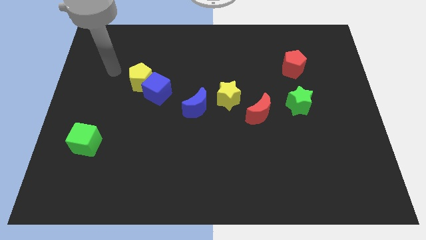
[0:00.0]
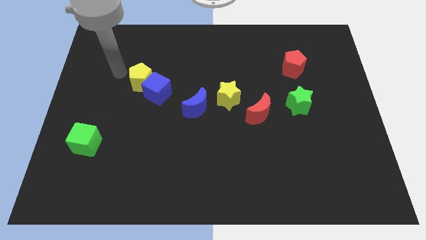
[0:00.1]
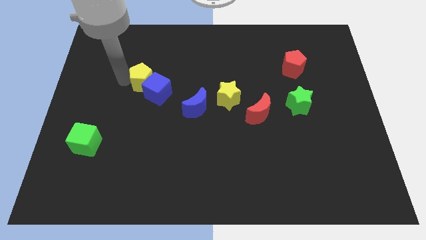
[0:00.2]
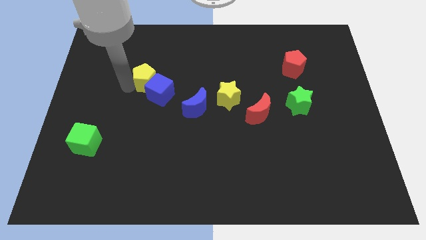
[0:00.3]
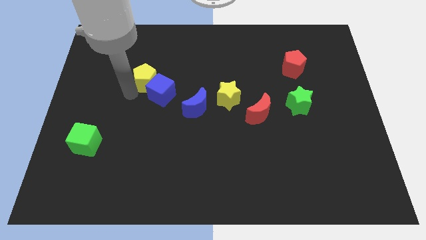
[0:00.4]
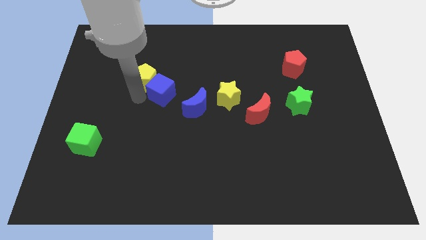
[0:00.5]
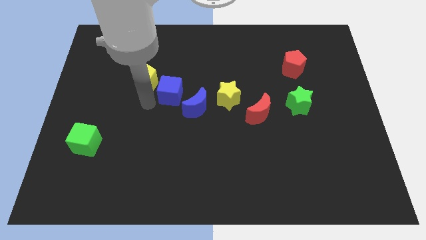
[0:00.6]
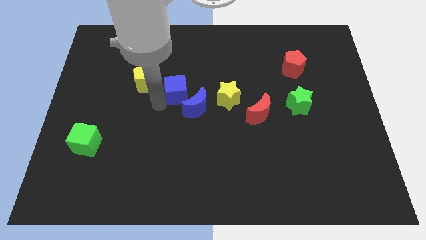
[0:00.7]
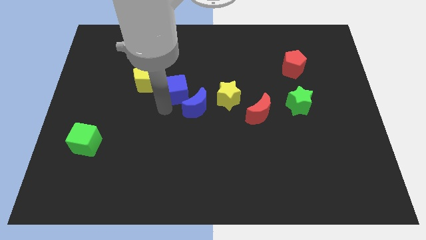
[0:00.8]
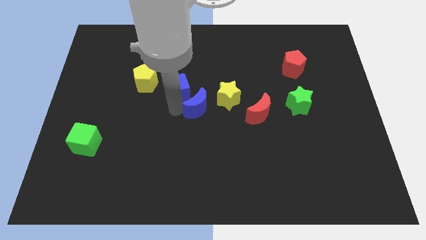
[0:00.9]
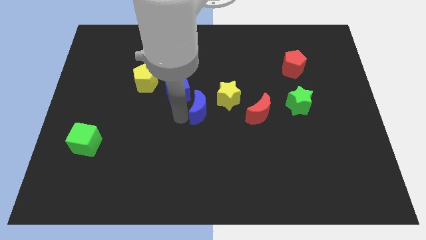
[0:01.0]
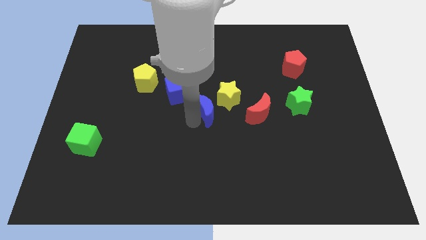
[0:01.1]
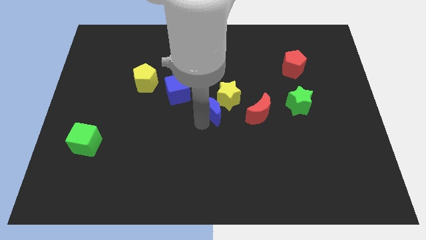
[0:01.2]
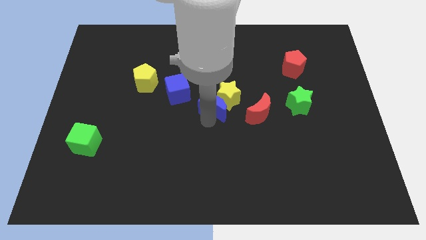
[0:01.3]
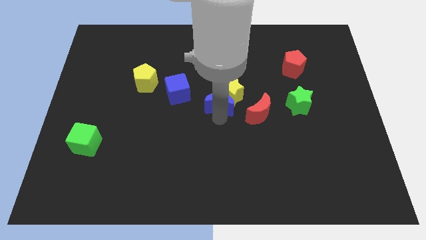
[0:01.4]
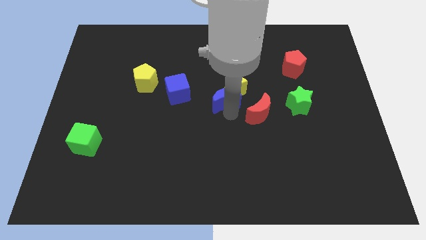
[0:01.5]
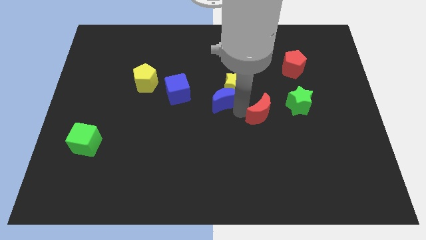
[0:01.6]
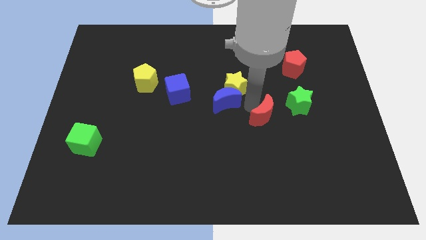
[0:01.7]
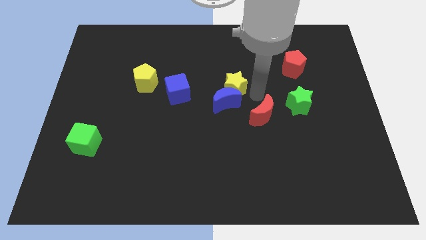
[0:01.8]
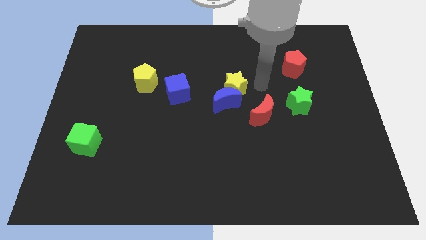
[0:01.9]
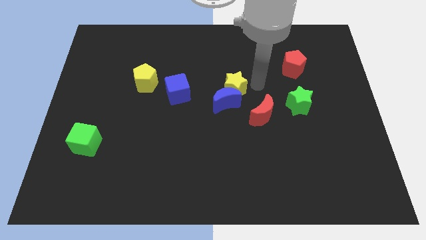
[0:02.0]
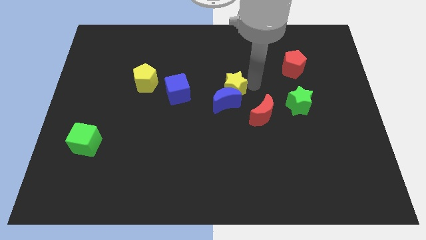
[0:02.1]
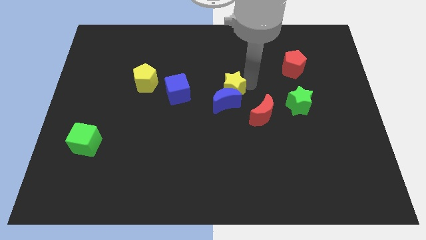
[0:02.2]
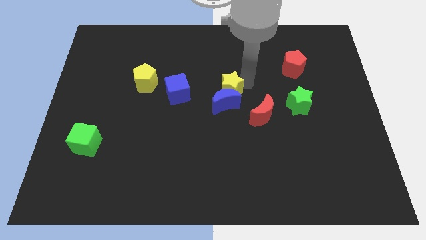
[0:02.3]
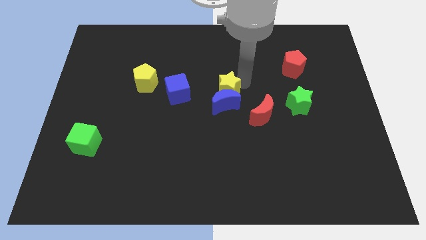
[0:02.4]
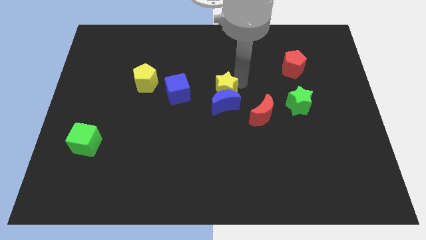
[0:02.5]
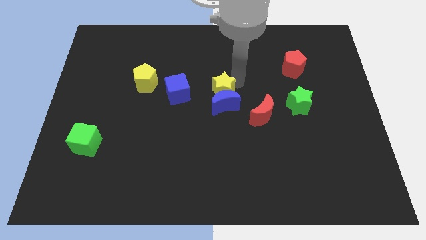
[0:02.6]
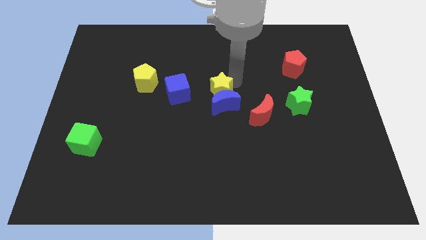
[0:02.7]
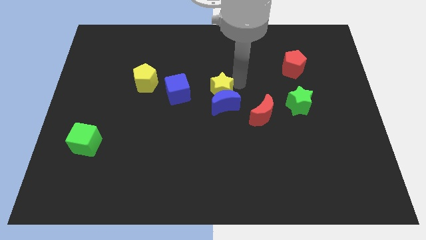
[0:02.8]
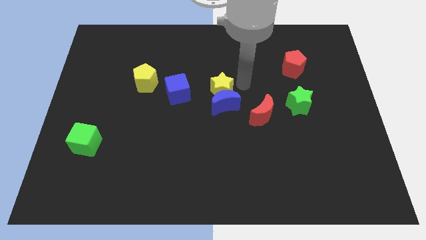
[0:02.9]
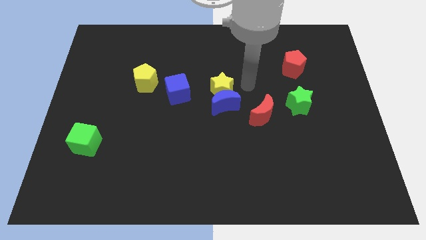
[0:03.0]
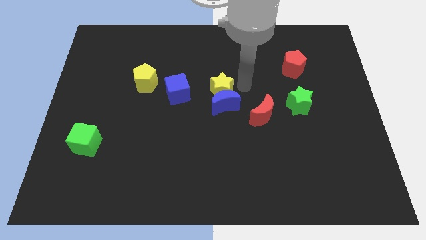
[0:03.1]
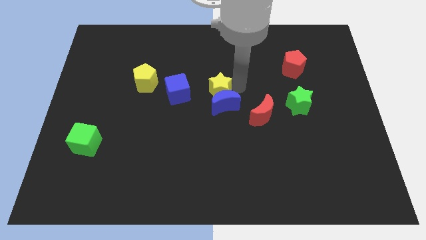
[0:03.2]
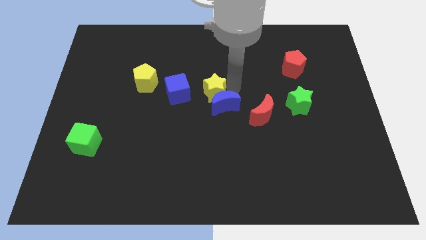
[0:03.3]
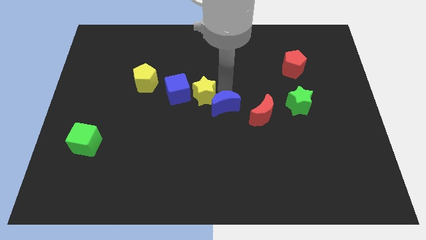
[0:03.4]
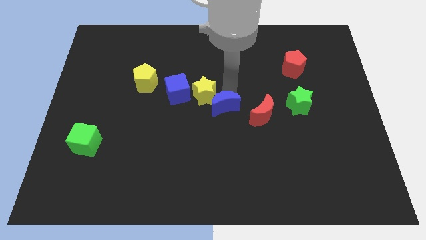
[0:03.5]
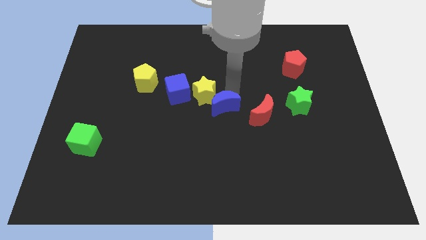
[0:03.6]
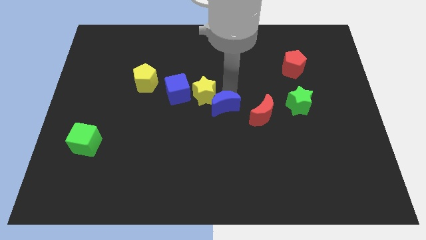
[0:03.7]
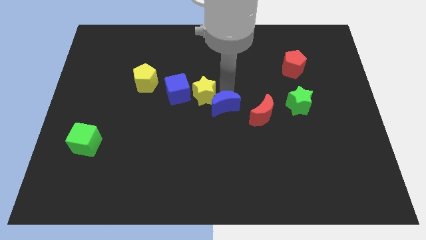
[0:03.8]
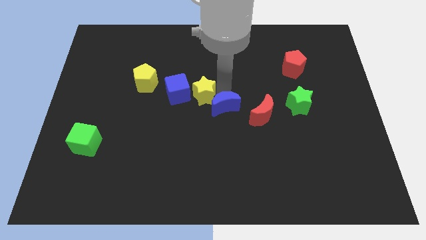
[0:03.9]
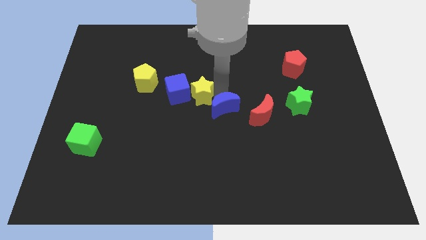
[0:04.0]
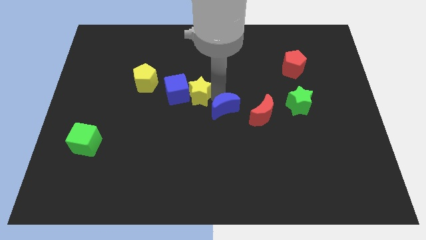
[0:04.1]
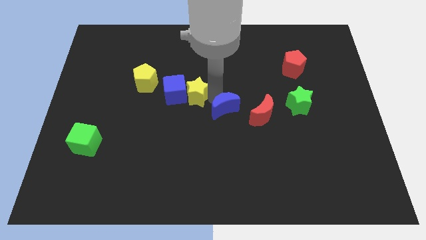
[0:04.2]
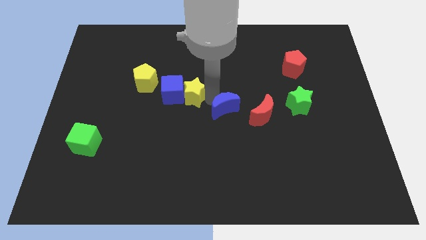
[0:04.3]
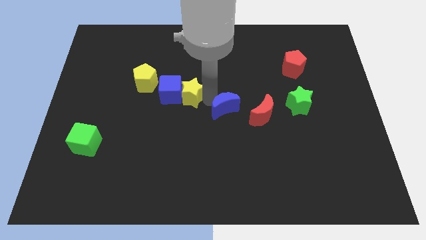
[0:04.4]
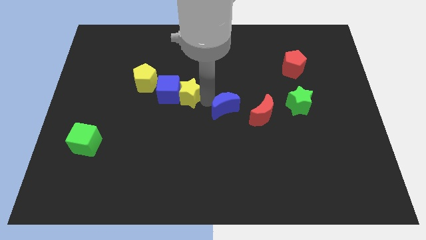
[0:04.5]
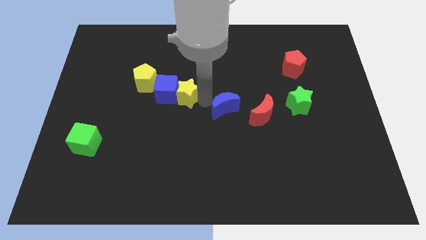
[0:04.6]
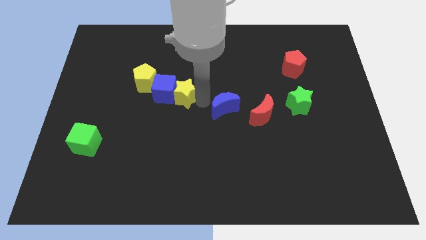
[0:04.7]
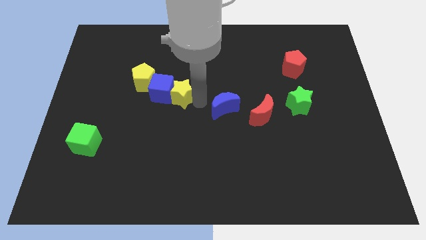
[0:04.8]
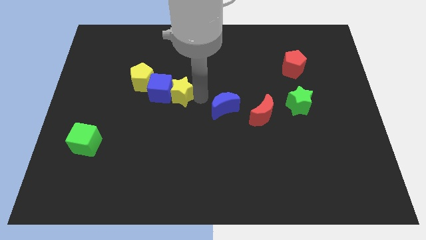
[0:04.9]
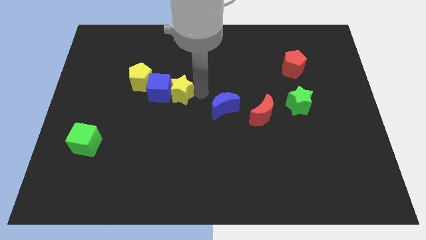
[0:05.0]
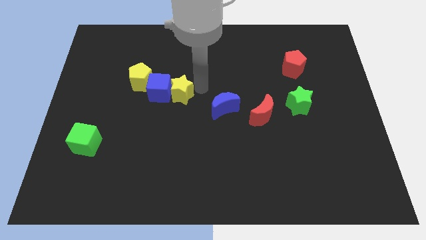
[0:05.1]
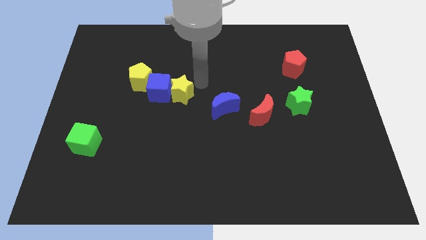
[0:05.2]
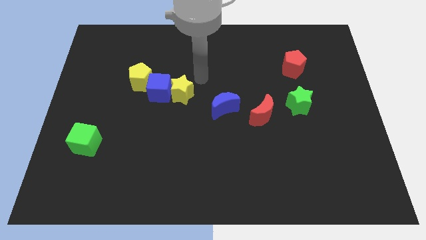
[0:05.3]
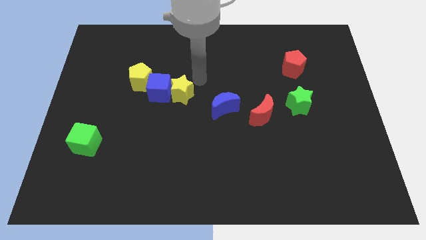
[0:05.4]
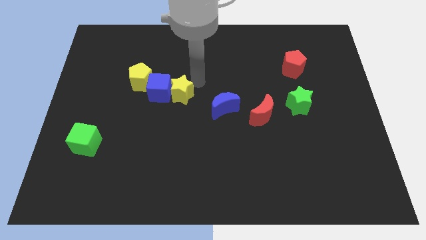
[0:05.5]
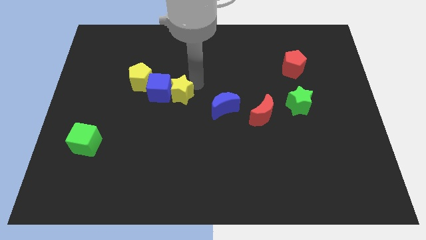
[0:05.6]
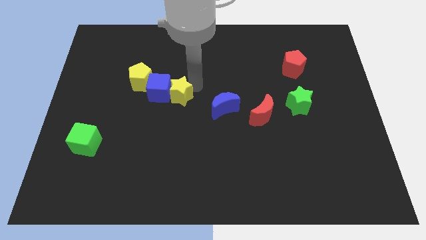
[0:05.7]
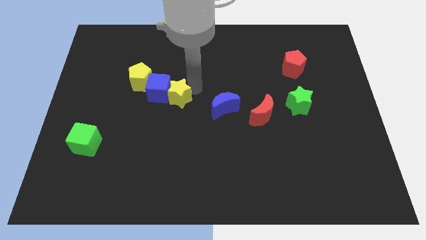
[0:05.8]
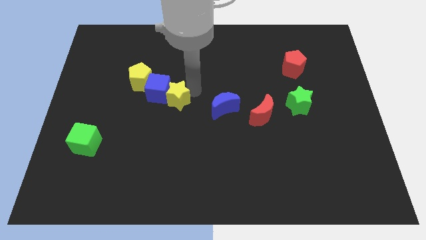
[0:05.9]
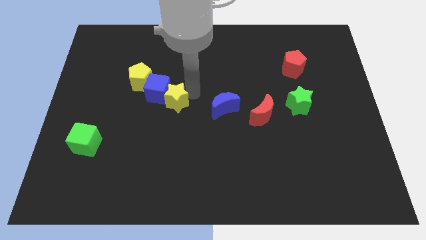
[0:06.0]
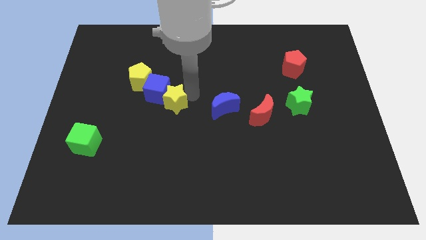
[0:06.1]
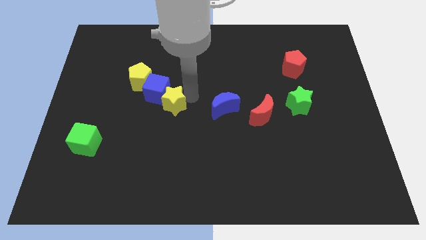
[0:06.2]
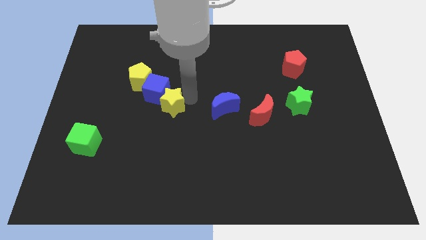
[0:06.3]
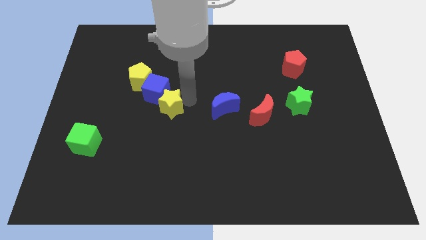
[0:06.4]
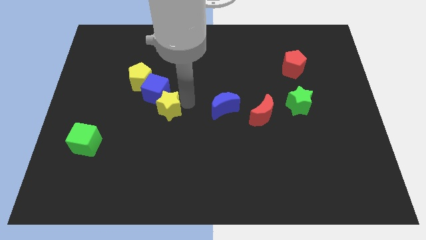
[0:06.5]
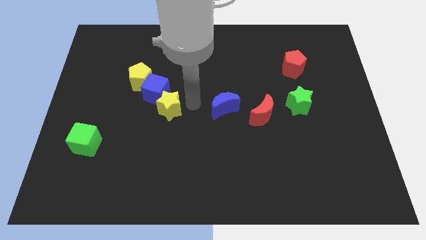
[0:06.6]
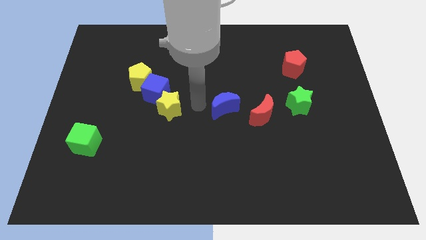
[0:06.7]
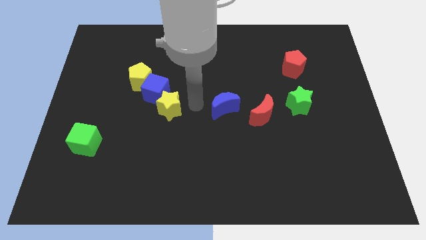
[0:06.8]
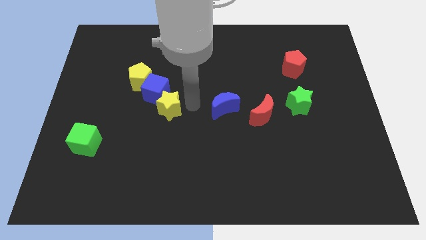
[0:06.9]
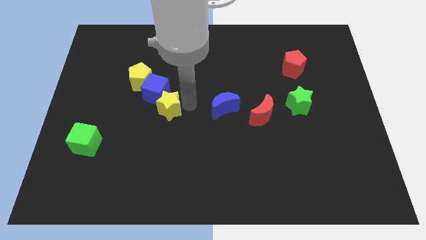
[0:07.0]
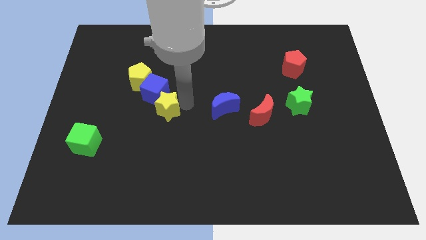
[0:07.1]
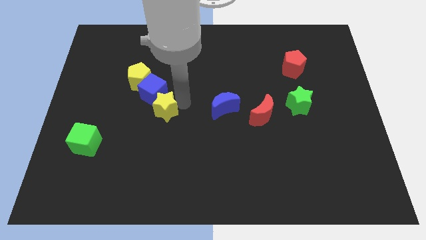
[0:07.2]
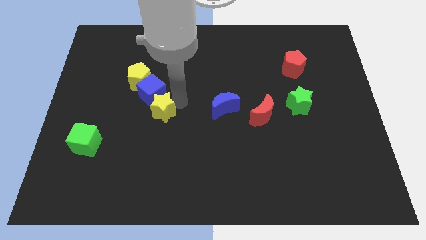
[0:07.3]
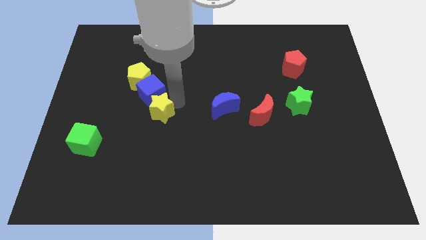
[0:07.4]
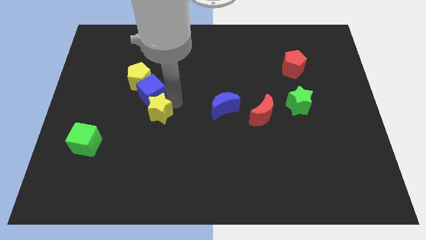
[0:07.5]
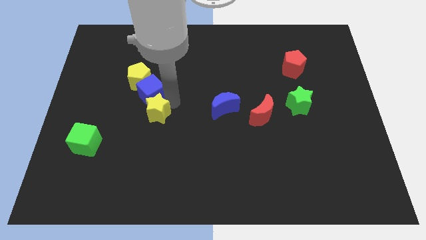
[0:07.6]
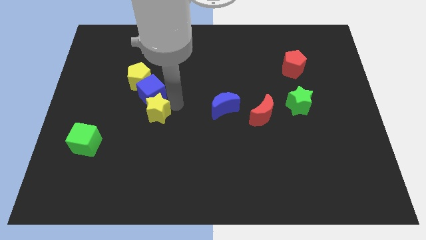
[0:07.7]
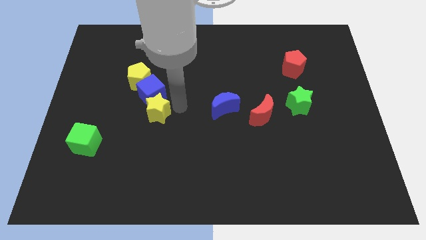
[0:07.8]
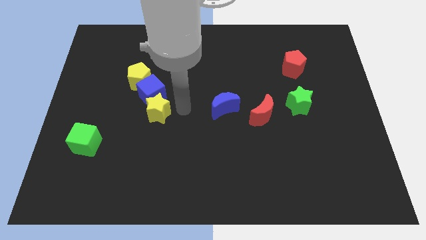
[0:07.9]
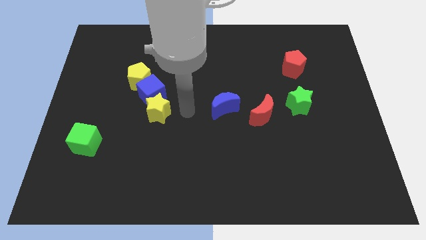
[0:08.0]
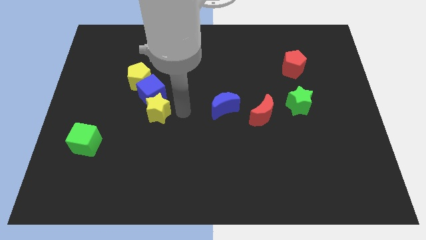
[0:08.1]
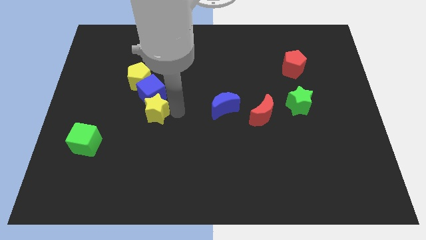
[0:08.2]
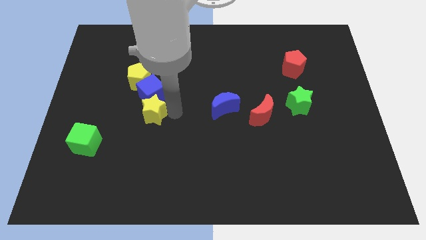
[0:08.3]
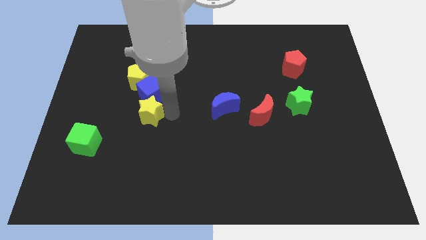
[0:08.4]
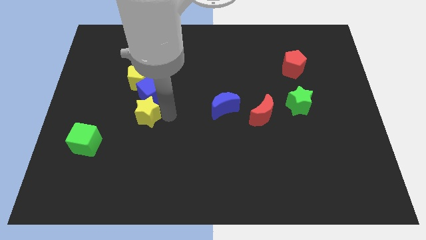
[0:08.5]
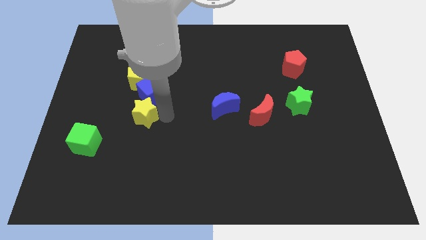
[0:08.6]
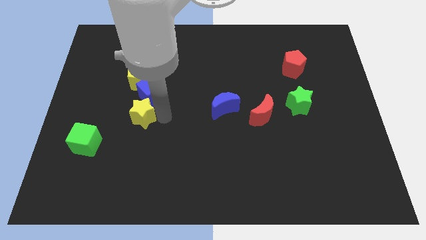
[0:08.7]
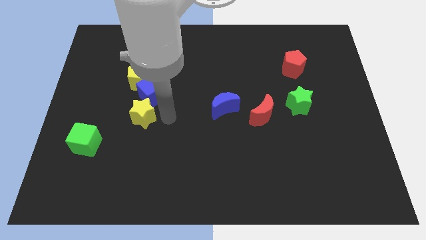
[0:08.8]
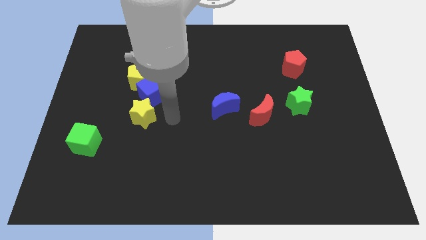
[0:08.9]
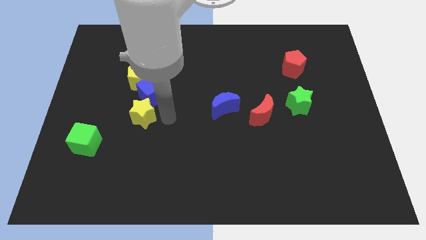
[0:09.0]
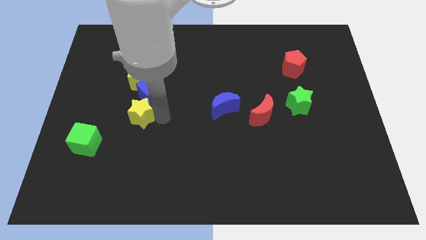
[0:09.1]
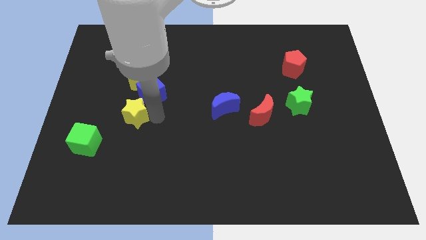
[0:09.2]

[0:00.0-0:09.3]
slide the yellow star left
